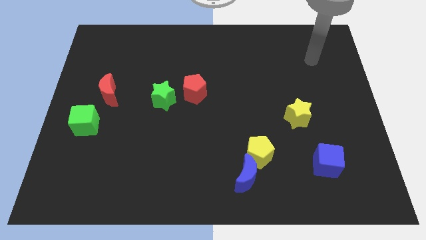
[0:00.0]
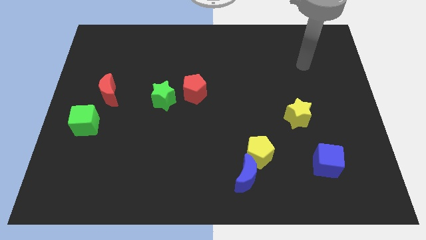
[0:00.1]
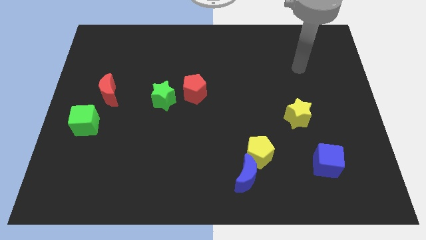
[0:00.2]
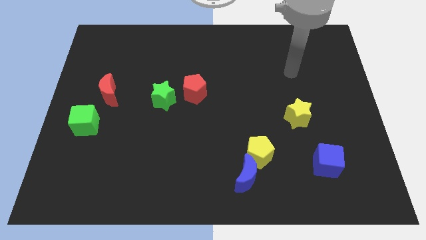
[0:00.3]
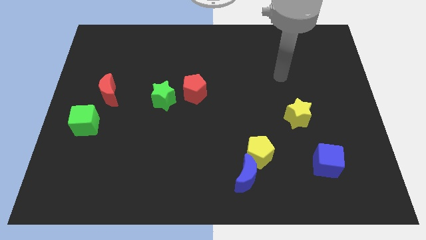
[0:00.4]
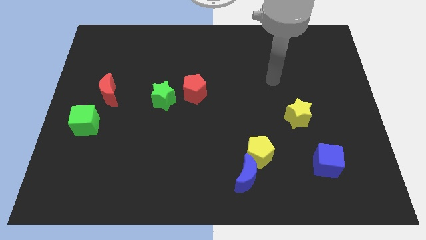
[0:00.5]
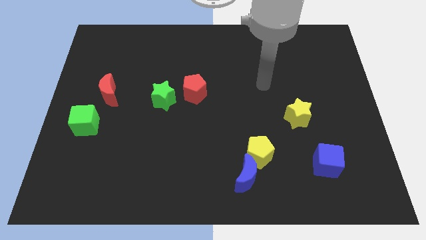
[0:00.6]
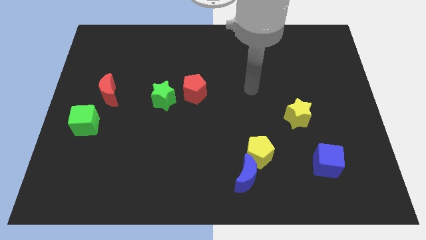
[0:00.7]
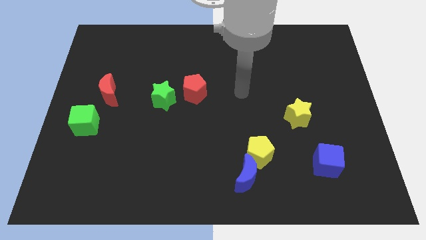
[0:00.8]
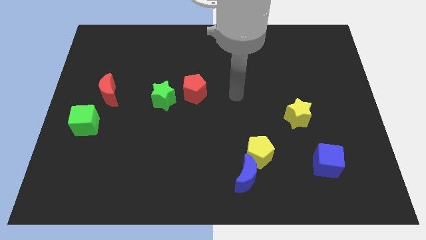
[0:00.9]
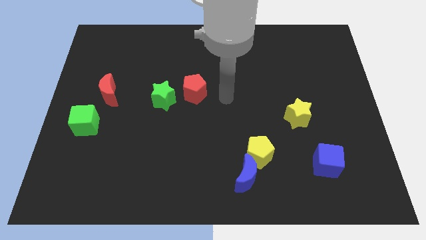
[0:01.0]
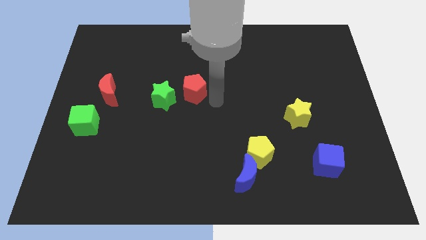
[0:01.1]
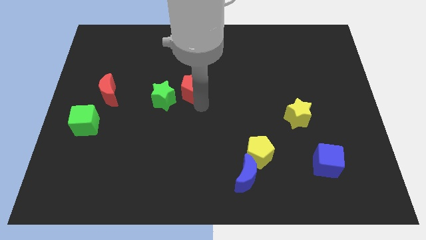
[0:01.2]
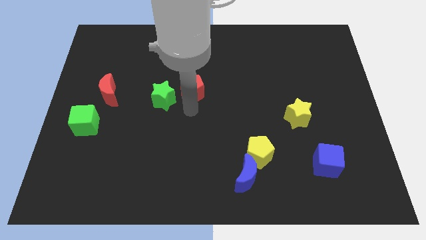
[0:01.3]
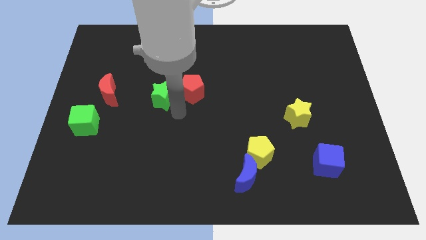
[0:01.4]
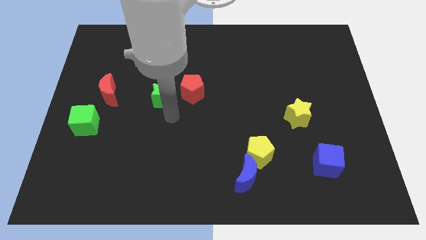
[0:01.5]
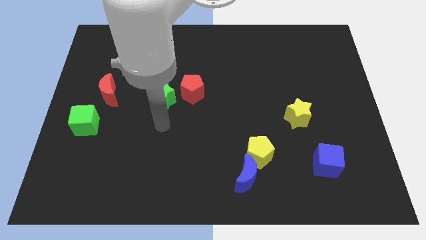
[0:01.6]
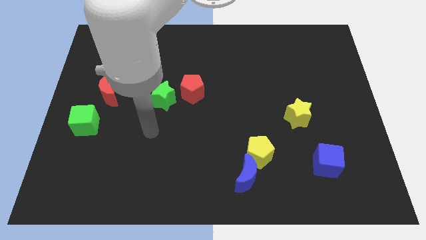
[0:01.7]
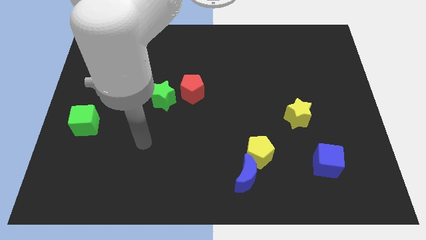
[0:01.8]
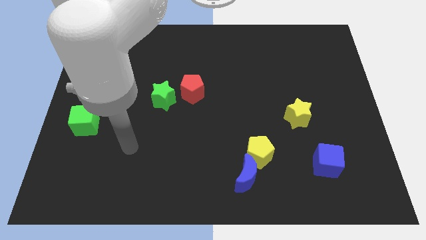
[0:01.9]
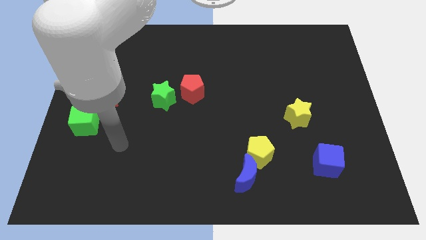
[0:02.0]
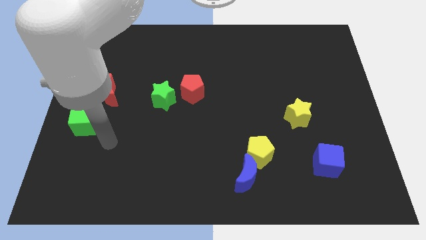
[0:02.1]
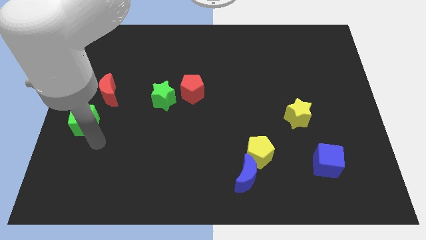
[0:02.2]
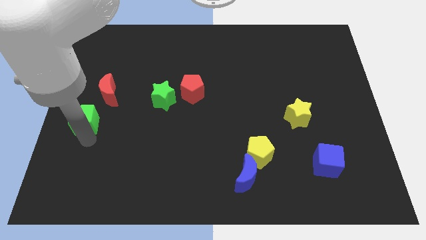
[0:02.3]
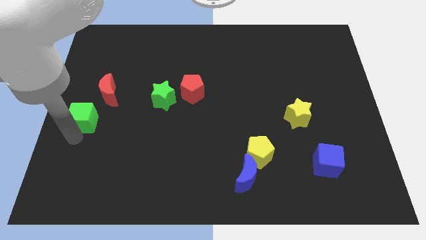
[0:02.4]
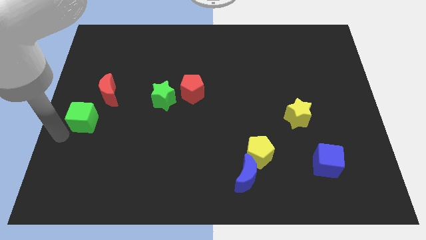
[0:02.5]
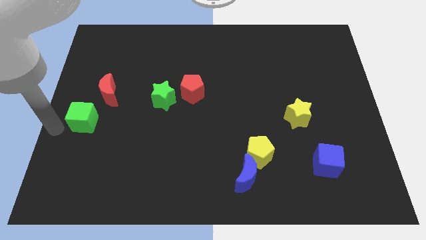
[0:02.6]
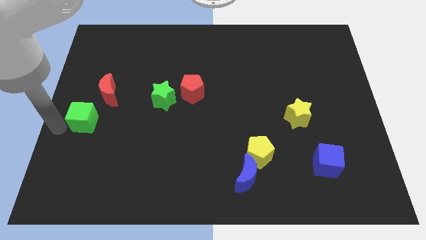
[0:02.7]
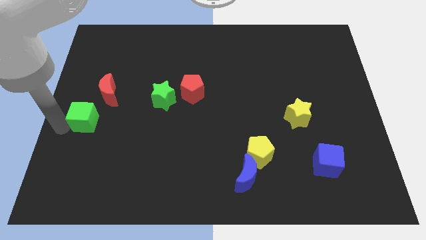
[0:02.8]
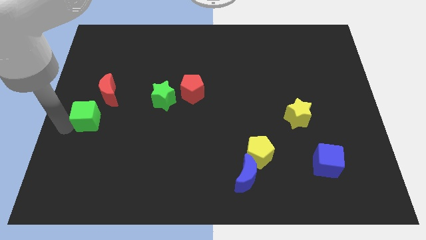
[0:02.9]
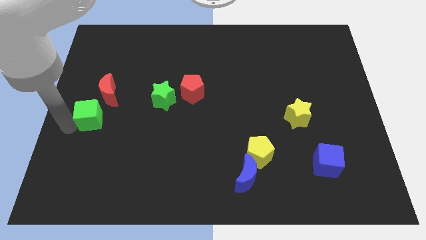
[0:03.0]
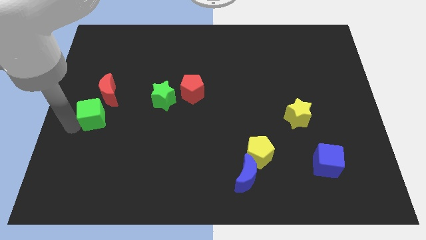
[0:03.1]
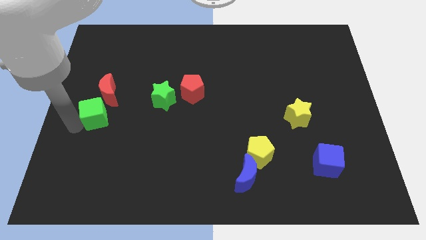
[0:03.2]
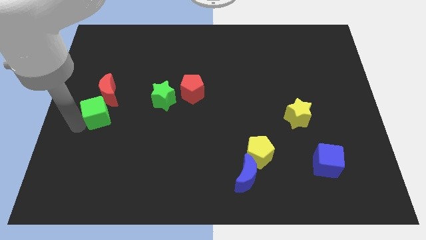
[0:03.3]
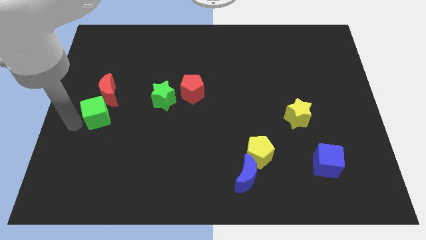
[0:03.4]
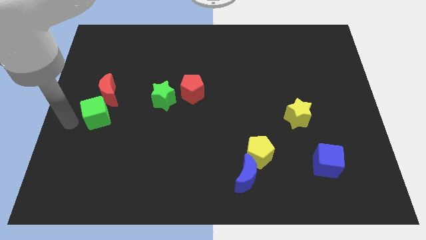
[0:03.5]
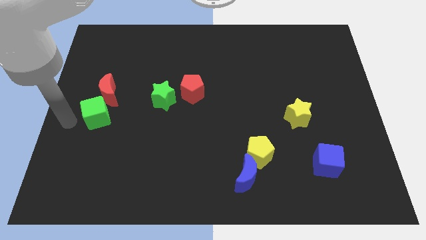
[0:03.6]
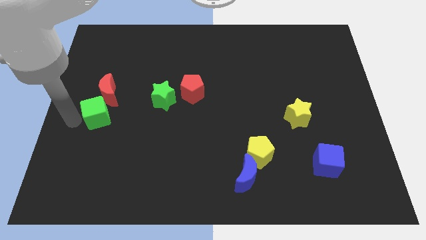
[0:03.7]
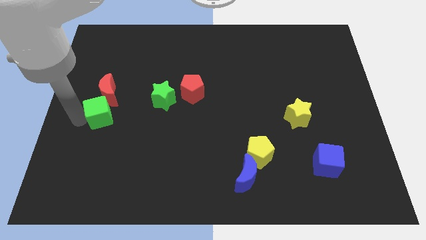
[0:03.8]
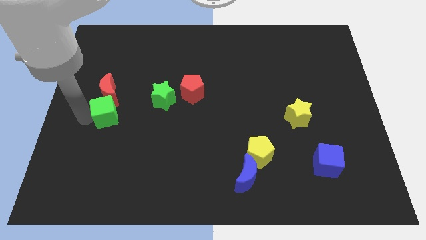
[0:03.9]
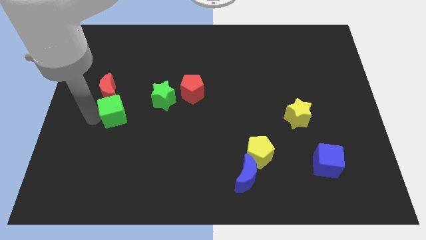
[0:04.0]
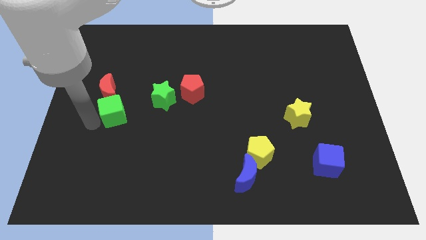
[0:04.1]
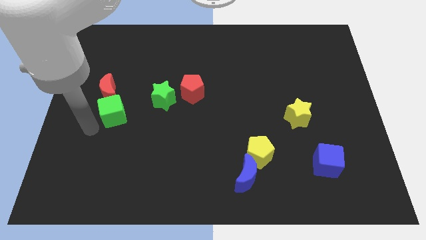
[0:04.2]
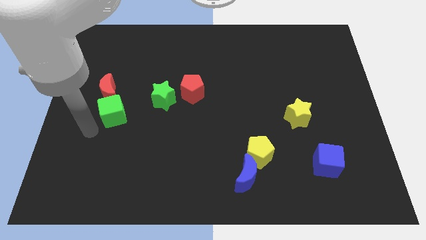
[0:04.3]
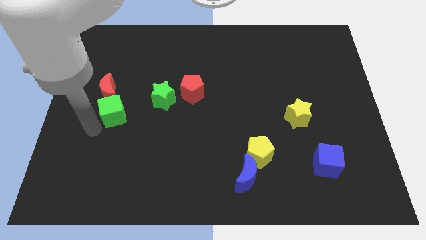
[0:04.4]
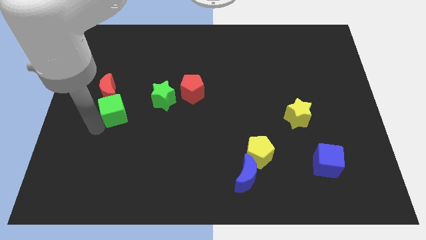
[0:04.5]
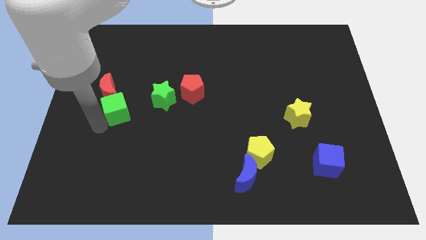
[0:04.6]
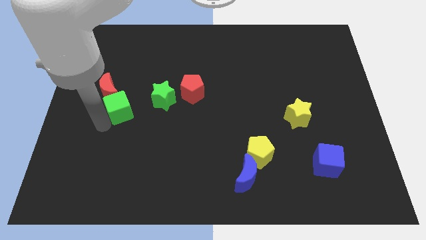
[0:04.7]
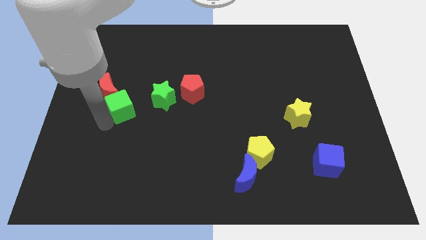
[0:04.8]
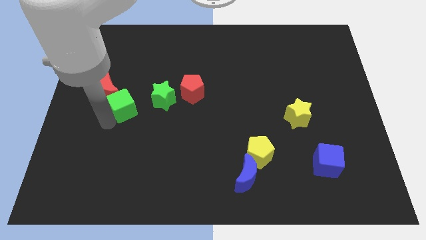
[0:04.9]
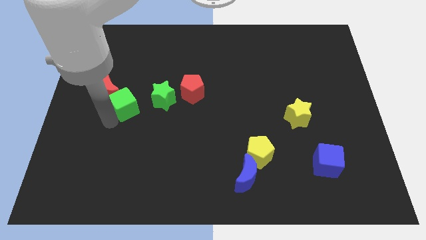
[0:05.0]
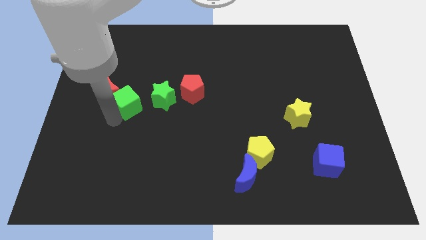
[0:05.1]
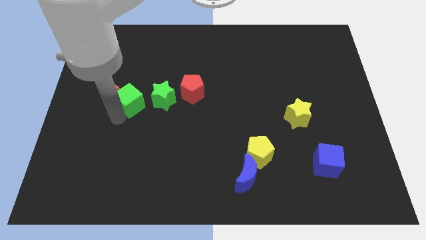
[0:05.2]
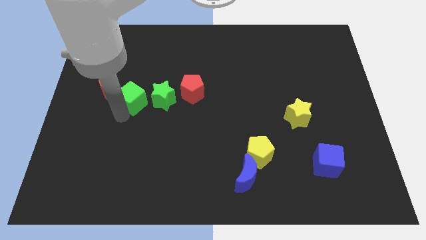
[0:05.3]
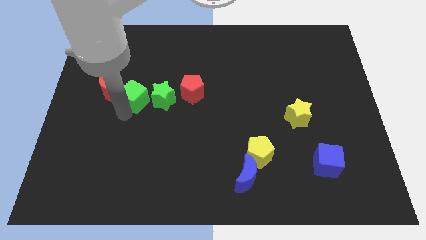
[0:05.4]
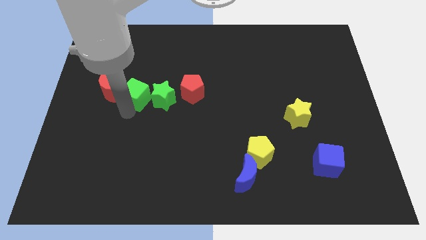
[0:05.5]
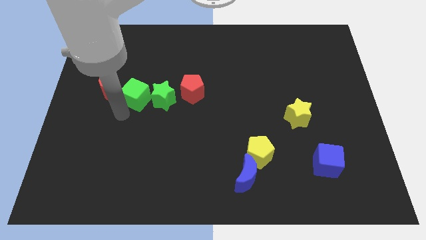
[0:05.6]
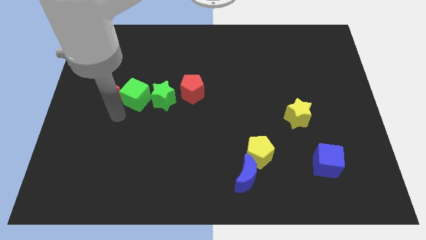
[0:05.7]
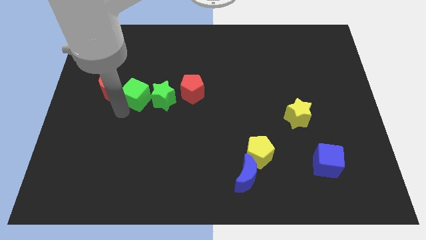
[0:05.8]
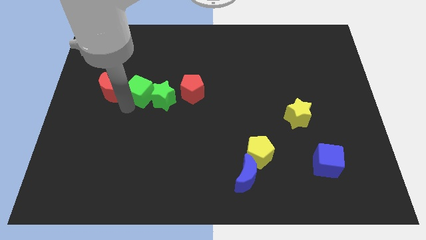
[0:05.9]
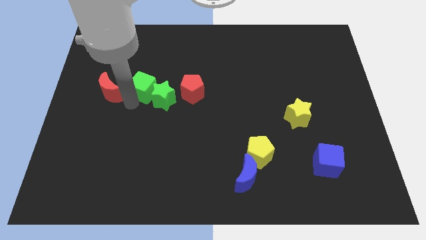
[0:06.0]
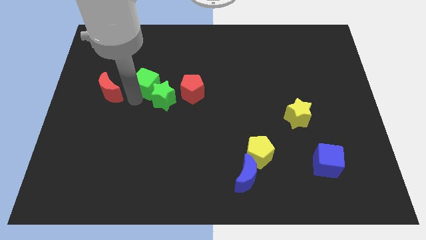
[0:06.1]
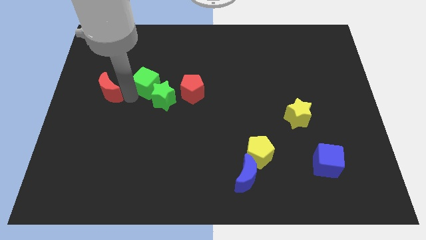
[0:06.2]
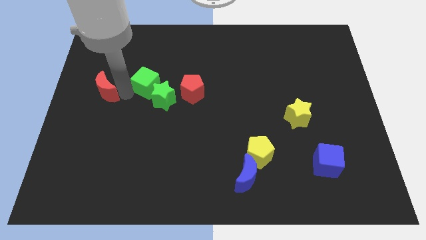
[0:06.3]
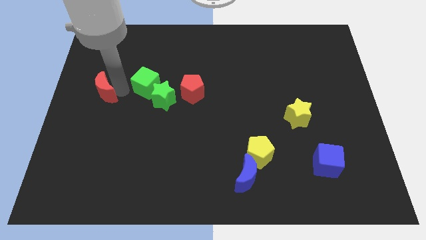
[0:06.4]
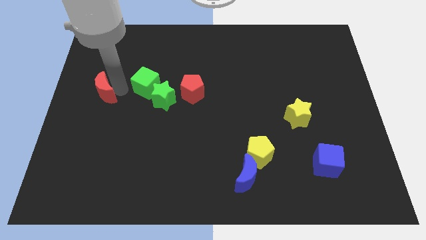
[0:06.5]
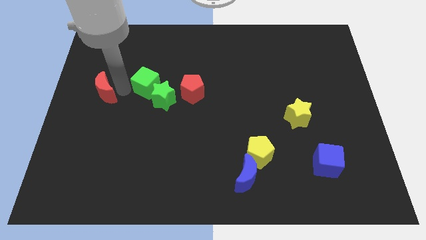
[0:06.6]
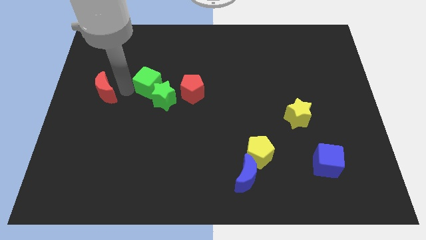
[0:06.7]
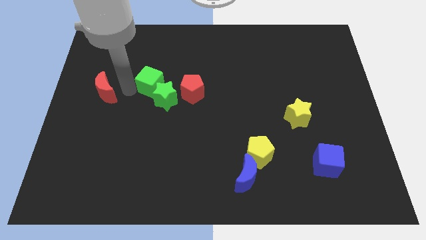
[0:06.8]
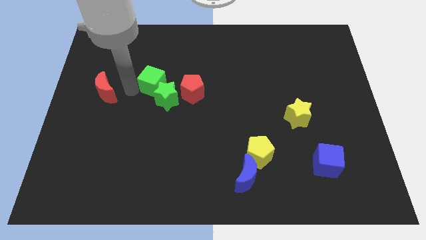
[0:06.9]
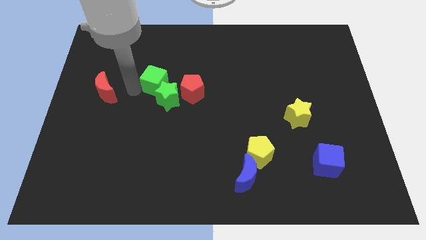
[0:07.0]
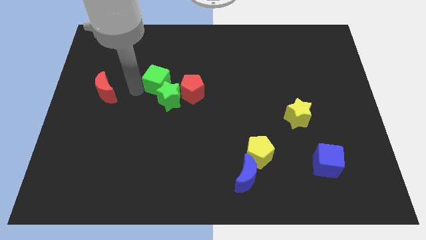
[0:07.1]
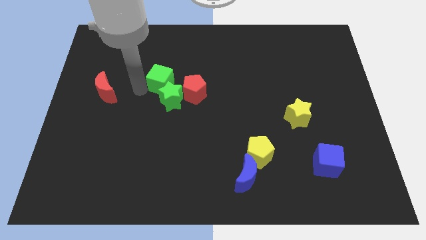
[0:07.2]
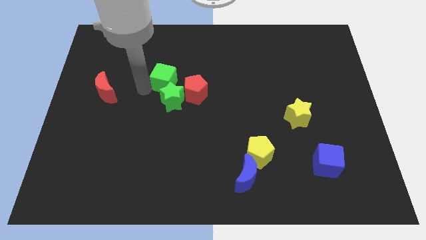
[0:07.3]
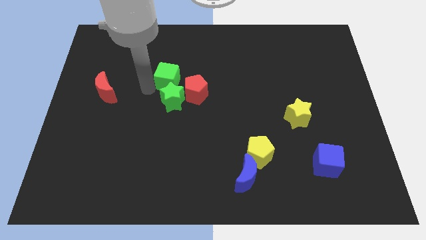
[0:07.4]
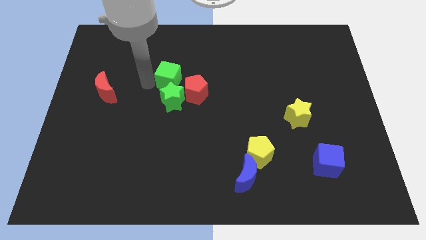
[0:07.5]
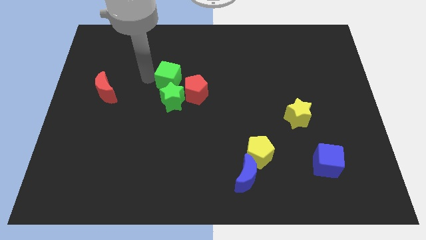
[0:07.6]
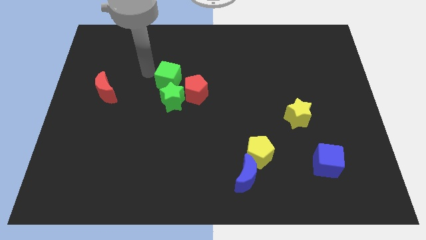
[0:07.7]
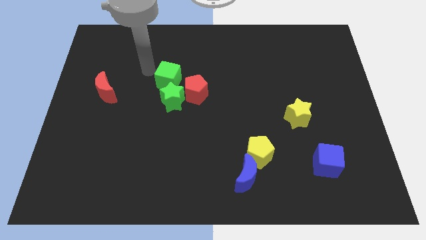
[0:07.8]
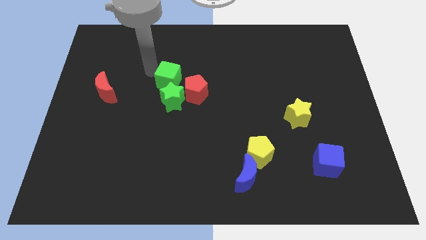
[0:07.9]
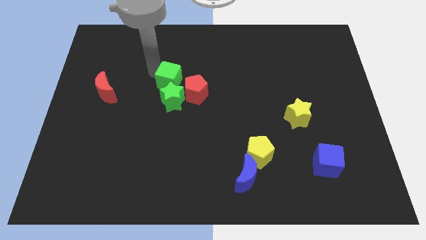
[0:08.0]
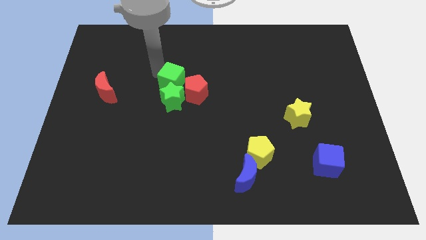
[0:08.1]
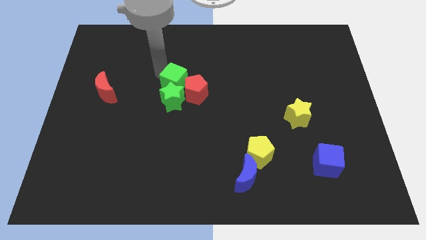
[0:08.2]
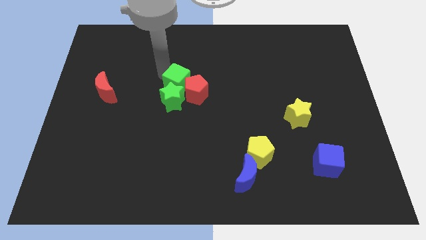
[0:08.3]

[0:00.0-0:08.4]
put the green cube to the red pentagon
